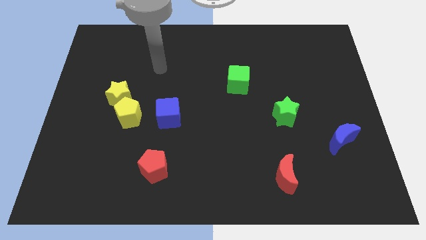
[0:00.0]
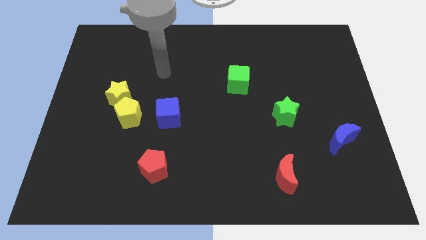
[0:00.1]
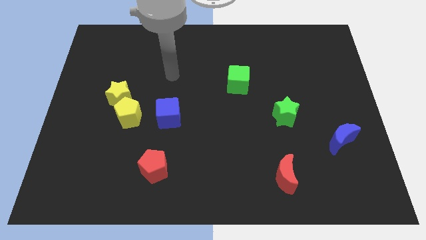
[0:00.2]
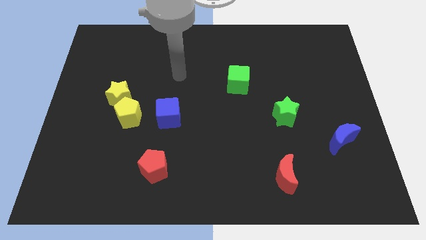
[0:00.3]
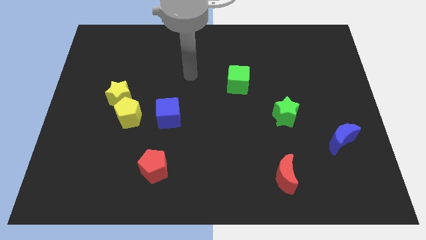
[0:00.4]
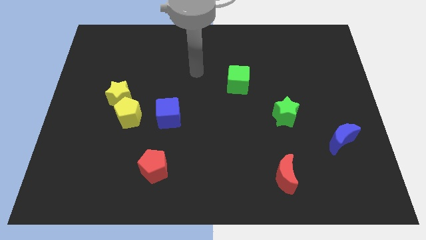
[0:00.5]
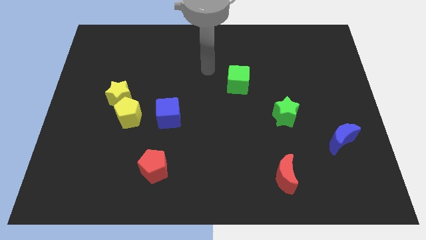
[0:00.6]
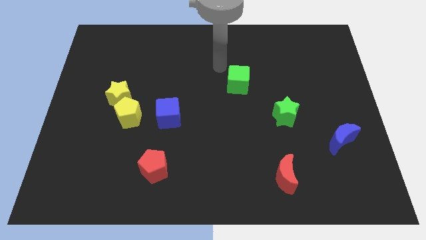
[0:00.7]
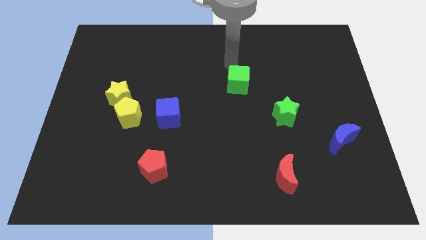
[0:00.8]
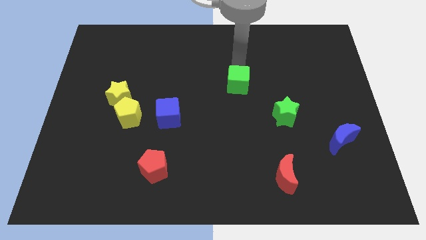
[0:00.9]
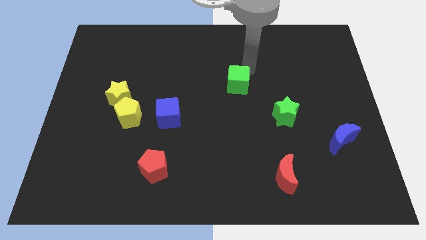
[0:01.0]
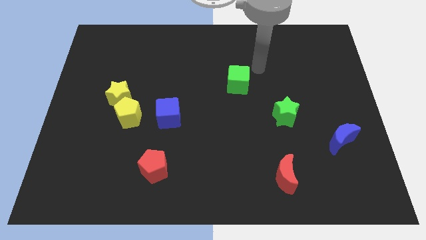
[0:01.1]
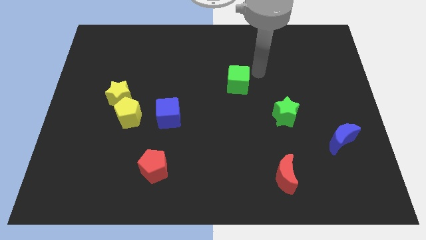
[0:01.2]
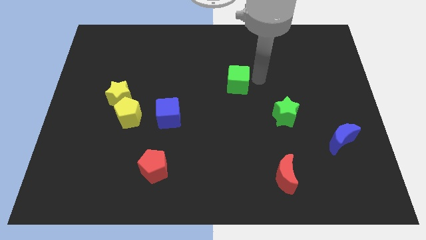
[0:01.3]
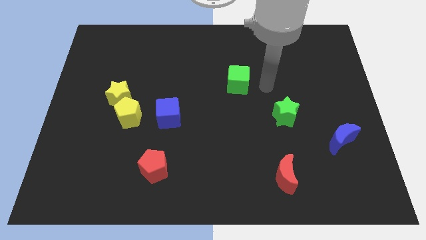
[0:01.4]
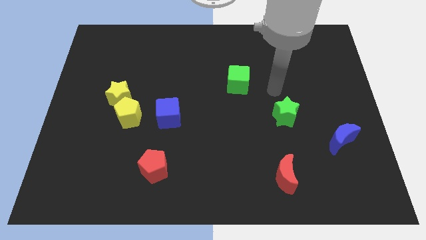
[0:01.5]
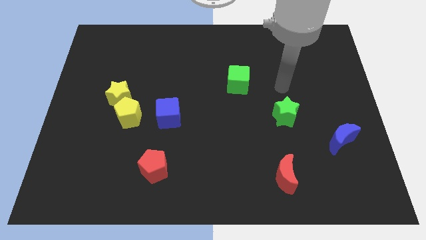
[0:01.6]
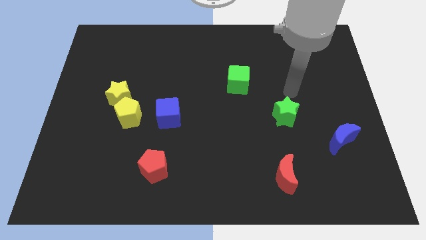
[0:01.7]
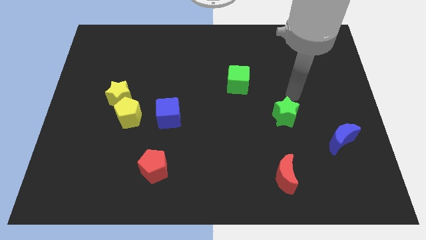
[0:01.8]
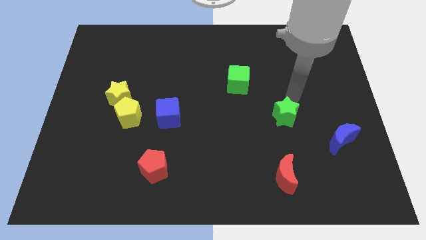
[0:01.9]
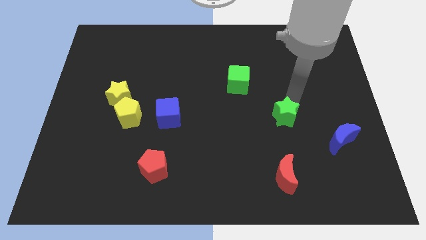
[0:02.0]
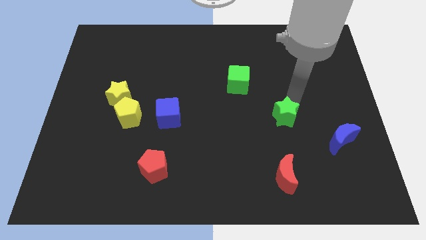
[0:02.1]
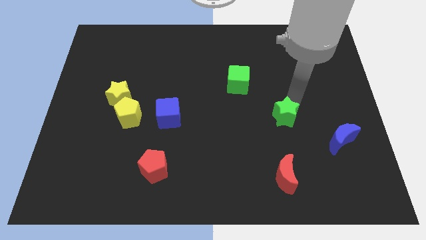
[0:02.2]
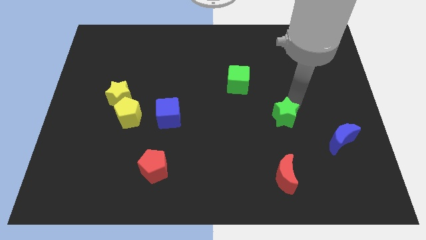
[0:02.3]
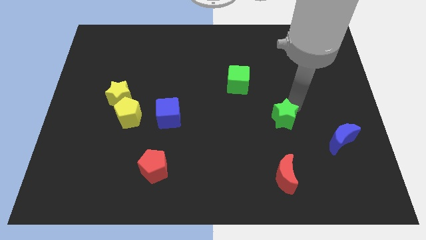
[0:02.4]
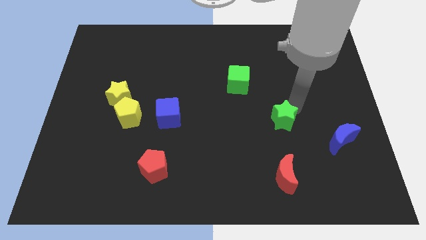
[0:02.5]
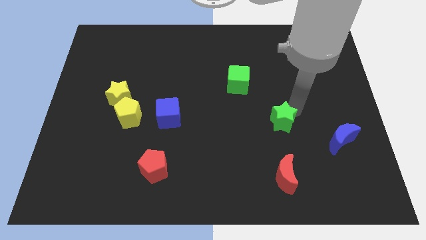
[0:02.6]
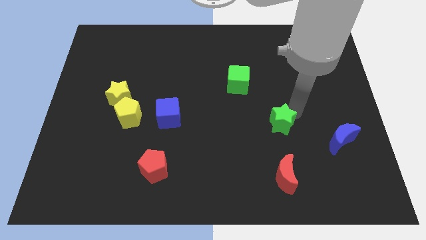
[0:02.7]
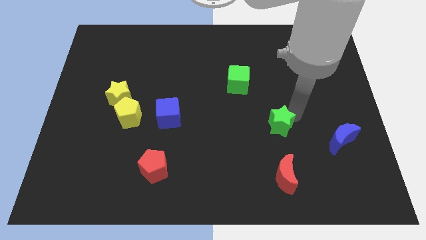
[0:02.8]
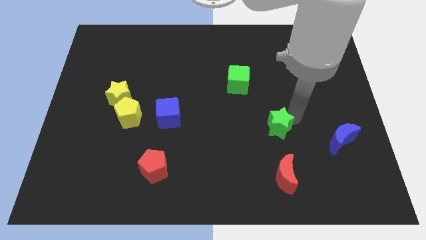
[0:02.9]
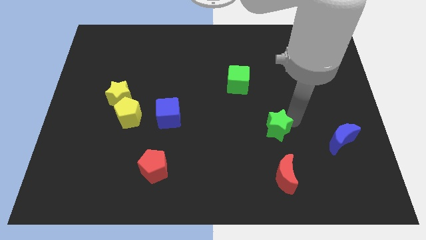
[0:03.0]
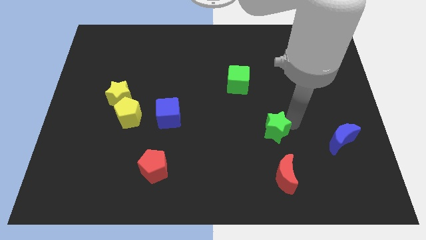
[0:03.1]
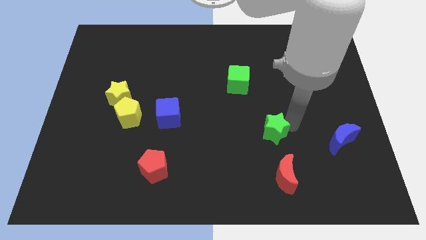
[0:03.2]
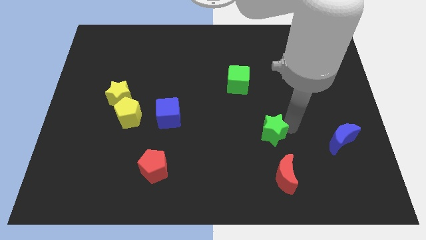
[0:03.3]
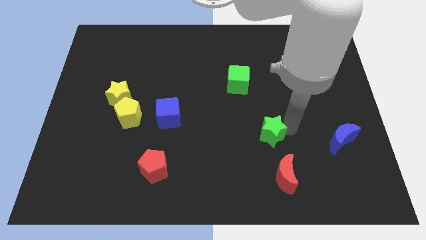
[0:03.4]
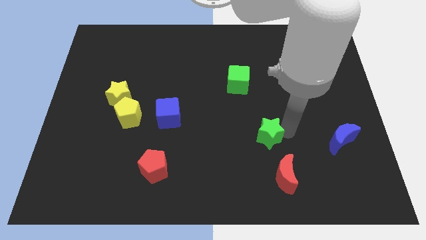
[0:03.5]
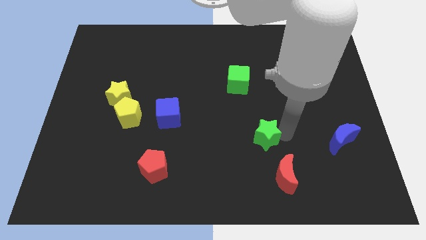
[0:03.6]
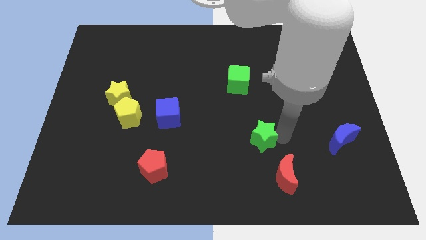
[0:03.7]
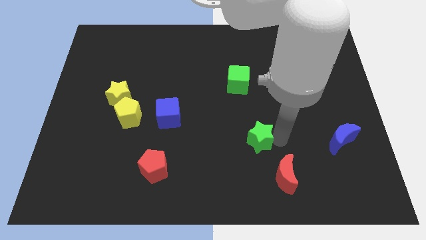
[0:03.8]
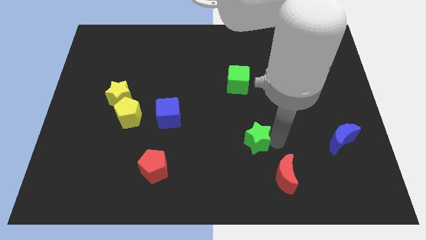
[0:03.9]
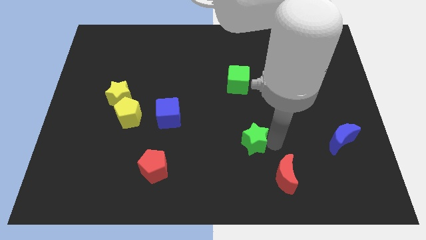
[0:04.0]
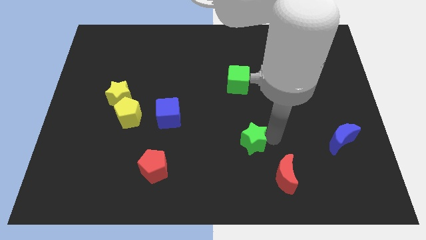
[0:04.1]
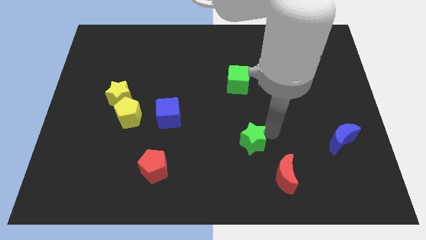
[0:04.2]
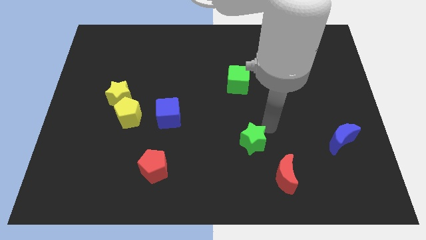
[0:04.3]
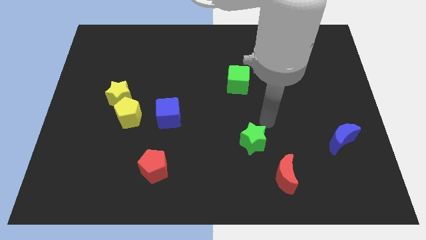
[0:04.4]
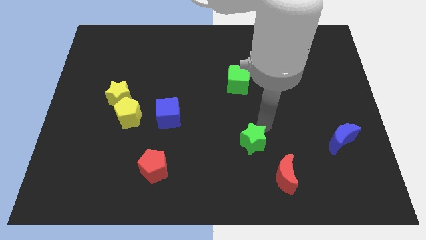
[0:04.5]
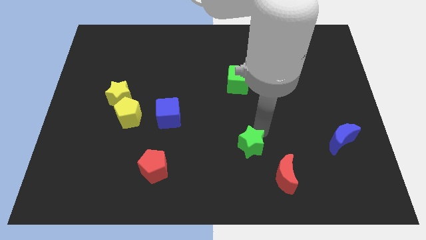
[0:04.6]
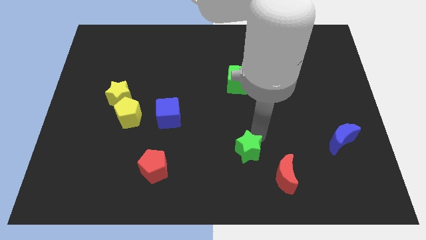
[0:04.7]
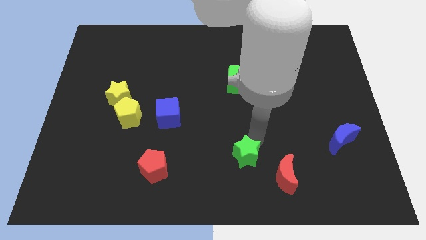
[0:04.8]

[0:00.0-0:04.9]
slide the green star left of the red moon

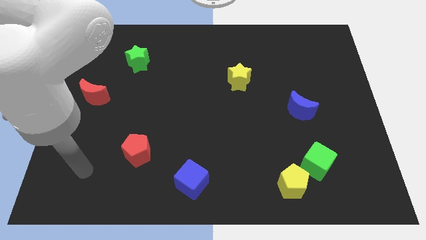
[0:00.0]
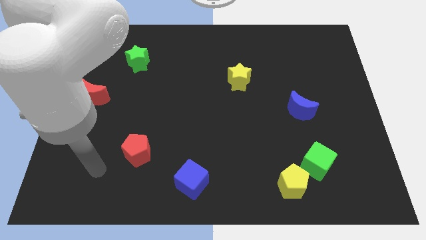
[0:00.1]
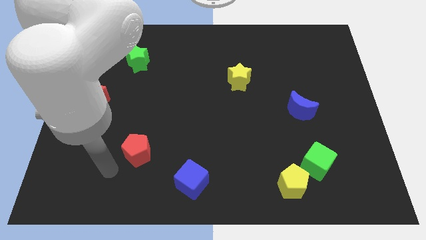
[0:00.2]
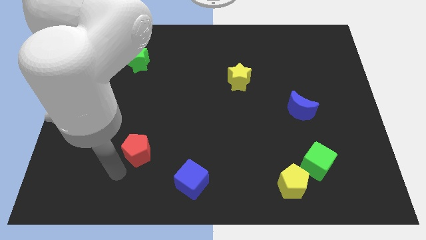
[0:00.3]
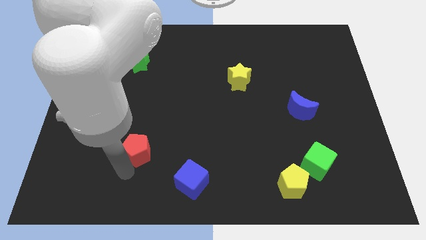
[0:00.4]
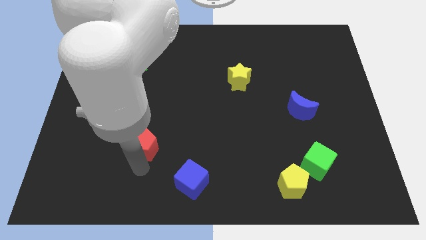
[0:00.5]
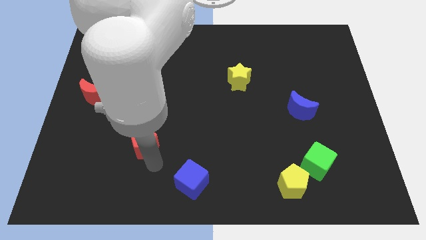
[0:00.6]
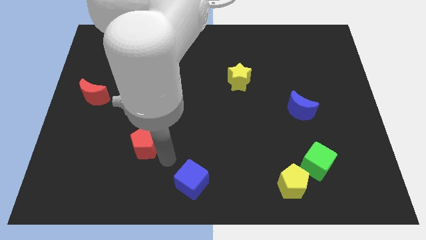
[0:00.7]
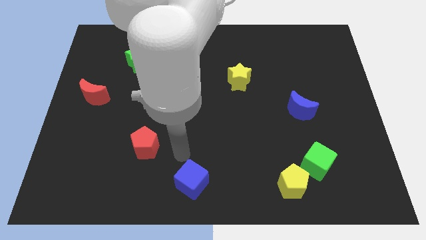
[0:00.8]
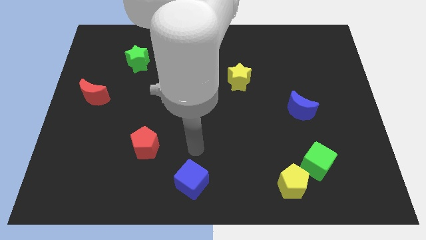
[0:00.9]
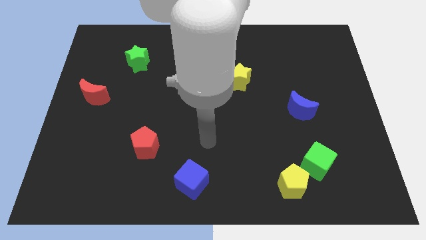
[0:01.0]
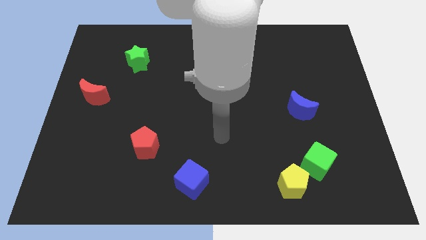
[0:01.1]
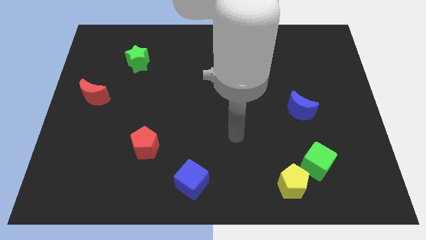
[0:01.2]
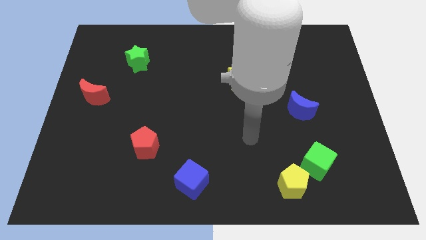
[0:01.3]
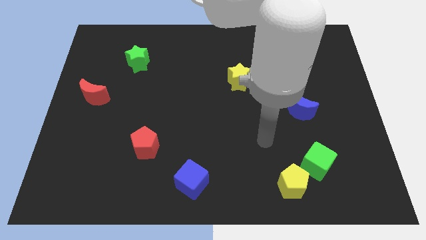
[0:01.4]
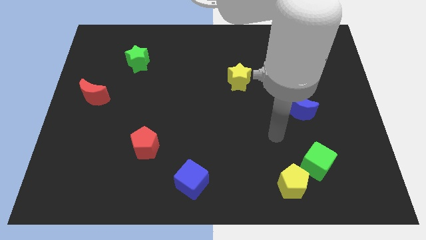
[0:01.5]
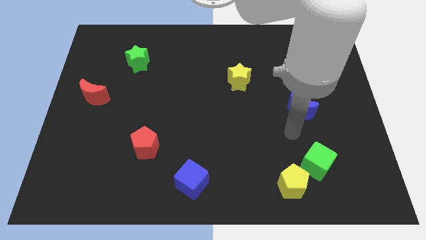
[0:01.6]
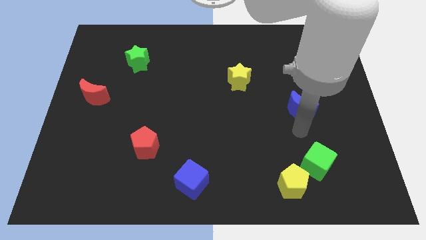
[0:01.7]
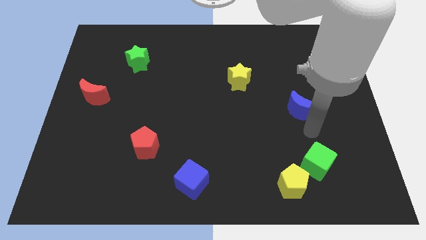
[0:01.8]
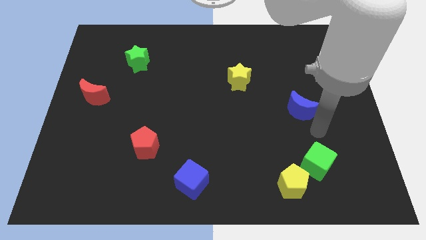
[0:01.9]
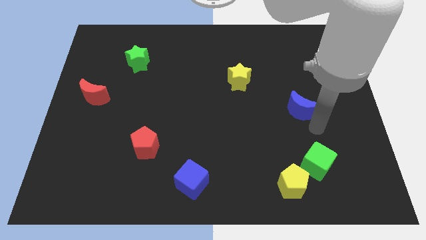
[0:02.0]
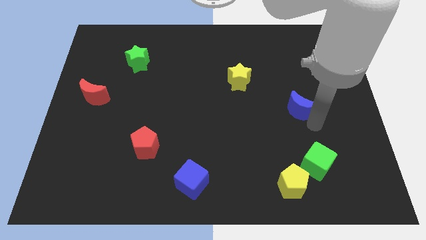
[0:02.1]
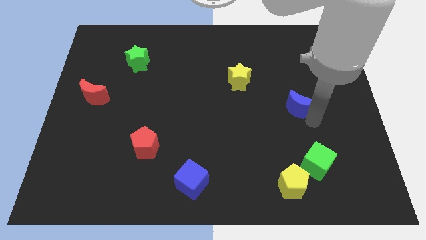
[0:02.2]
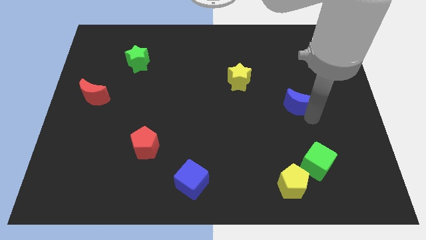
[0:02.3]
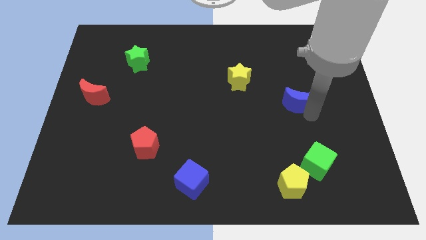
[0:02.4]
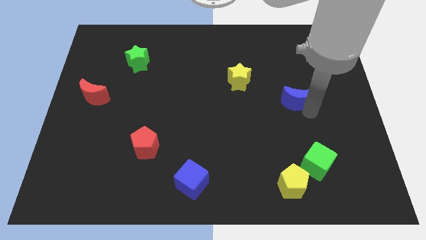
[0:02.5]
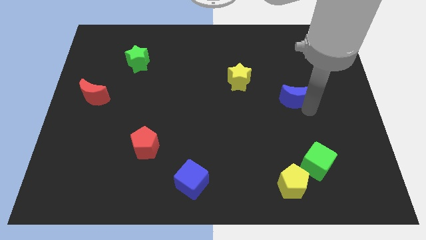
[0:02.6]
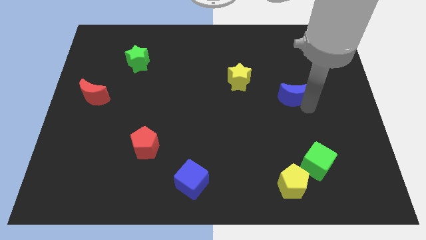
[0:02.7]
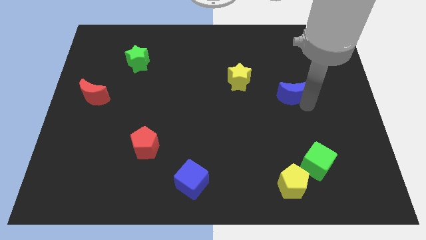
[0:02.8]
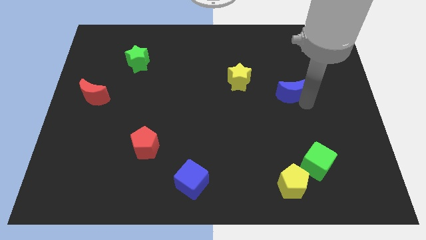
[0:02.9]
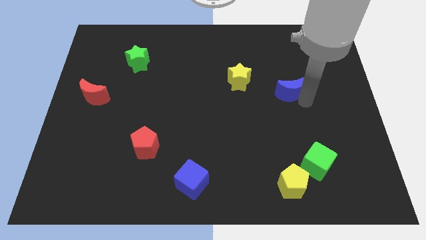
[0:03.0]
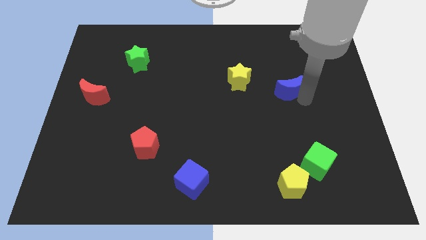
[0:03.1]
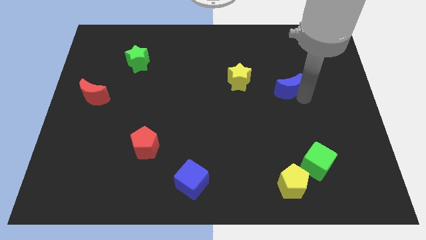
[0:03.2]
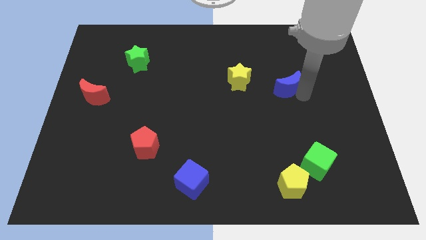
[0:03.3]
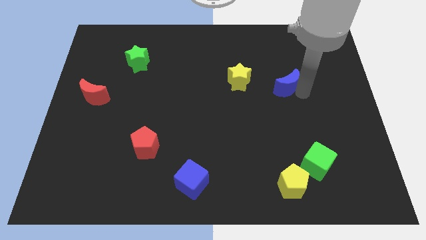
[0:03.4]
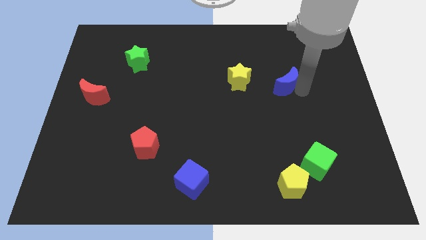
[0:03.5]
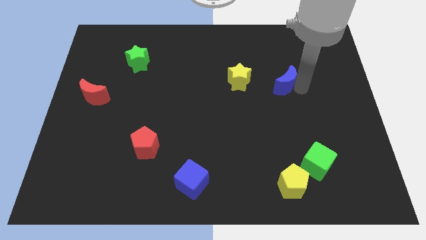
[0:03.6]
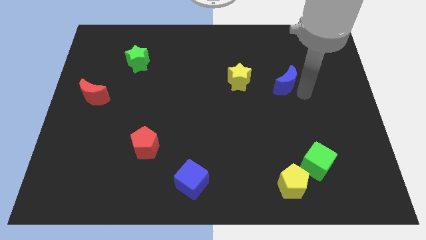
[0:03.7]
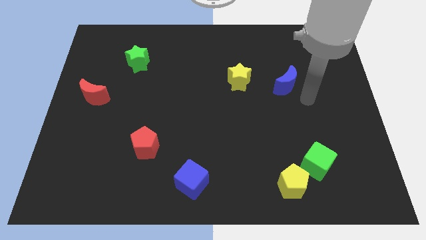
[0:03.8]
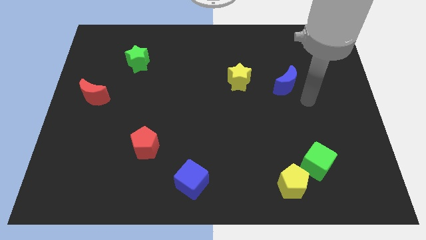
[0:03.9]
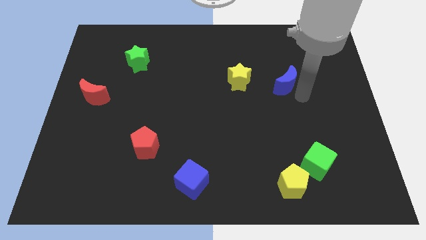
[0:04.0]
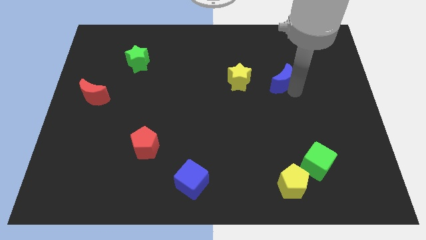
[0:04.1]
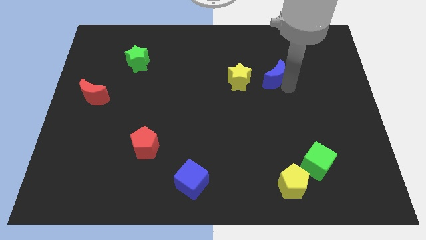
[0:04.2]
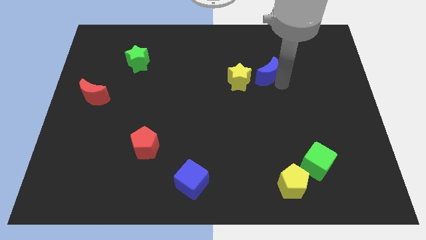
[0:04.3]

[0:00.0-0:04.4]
push the blue moon to the top right of the yellow star
